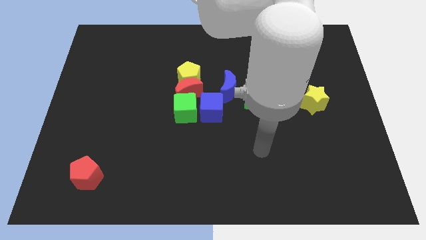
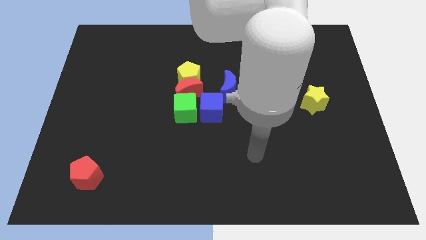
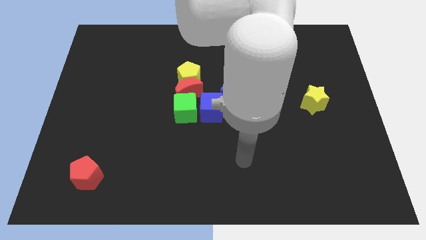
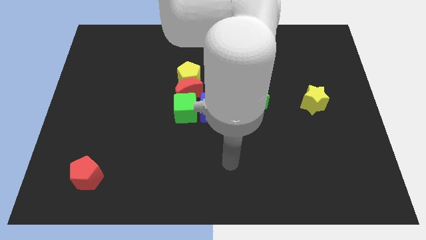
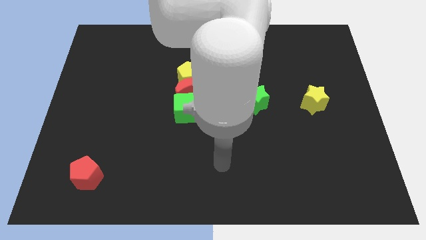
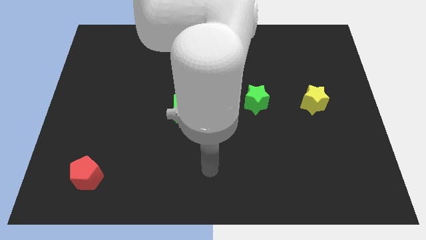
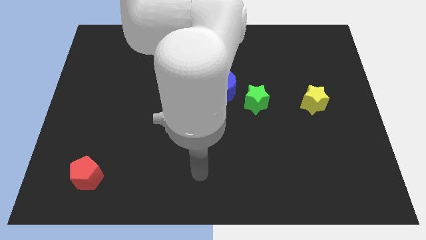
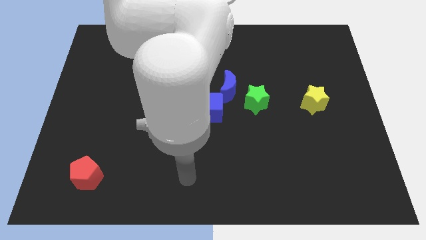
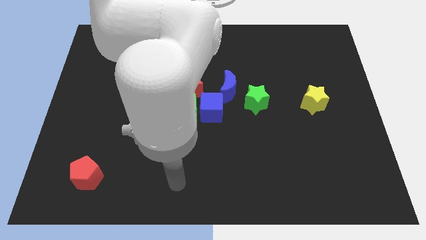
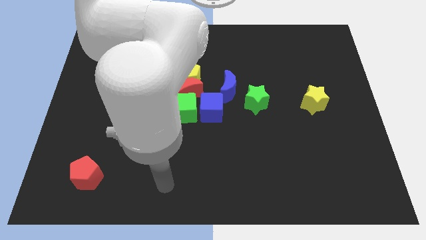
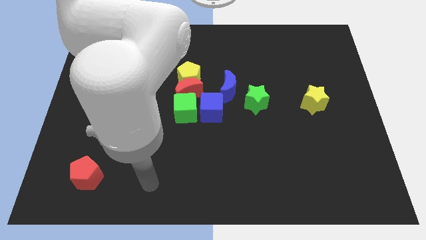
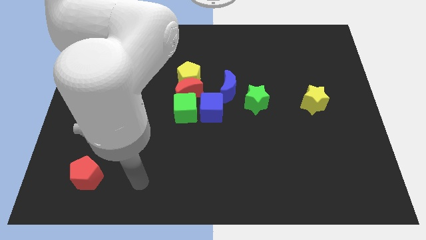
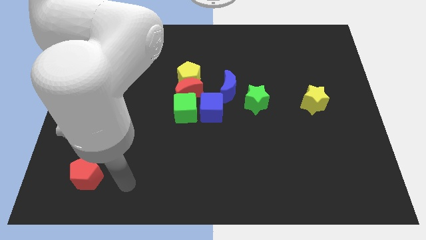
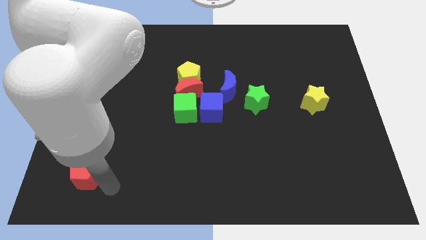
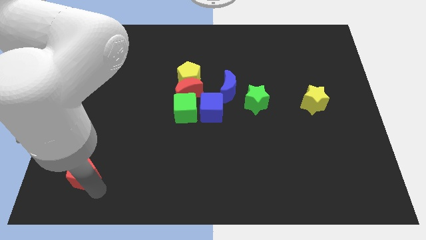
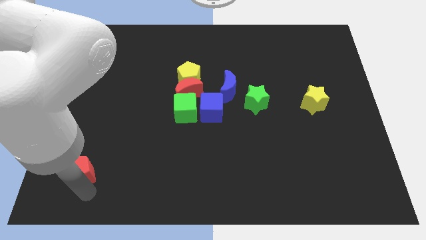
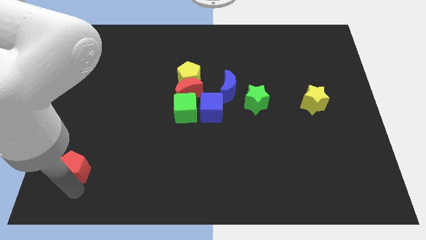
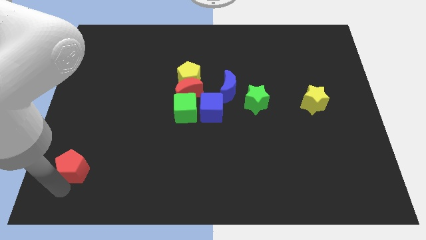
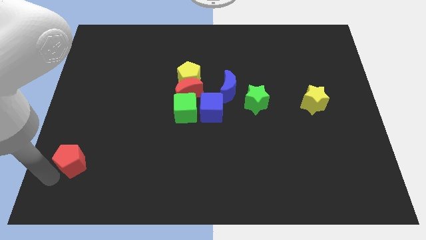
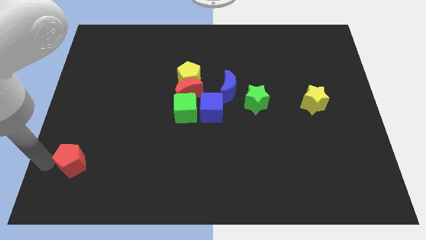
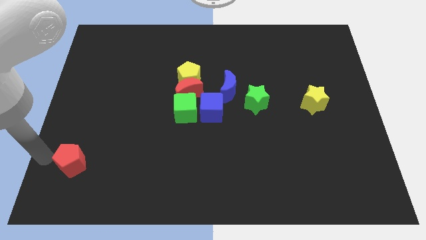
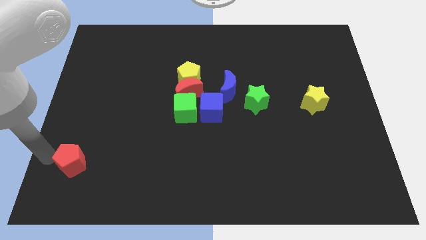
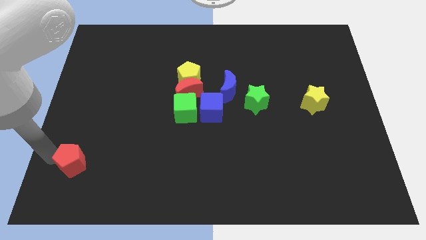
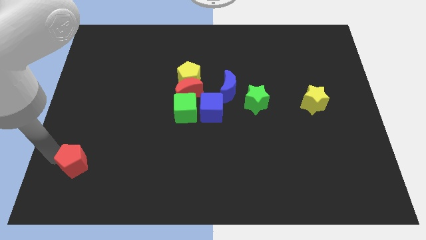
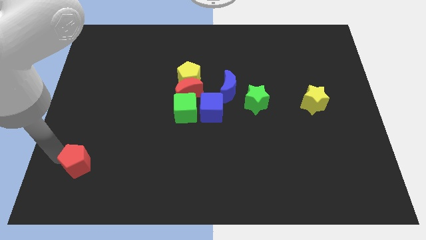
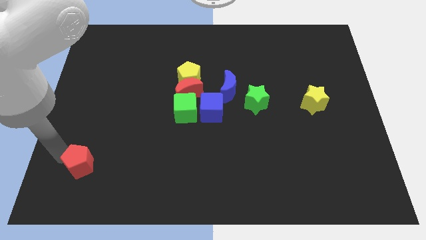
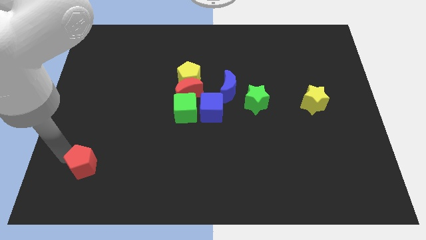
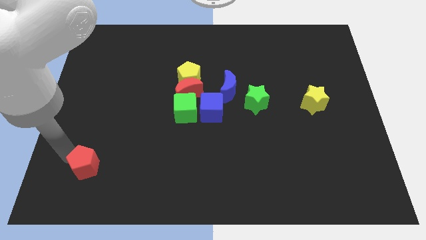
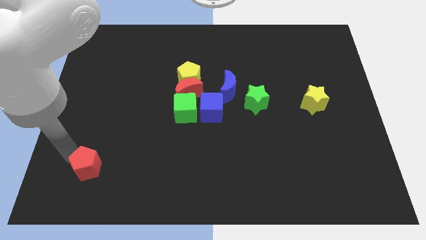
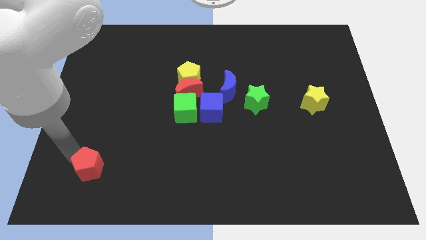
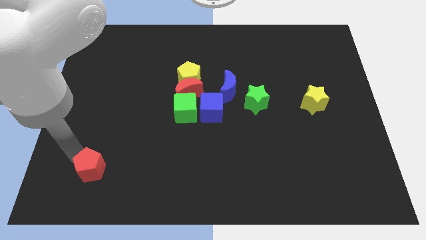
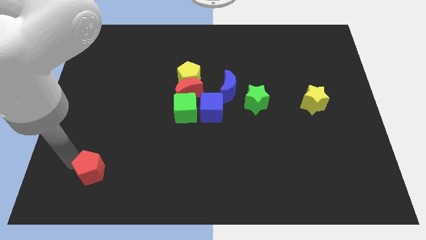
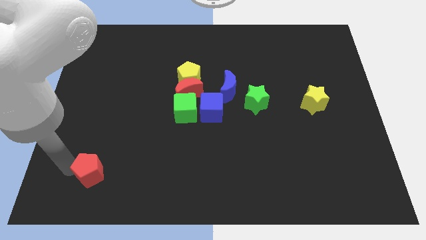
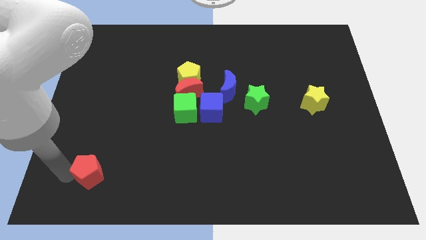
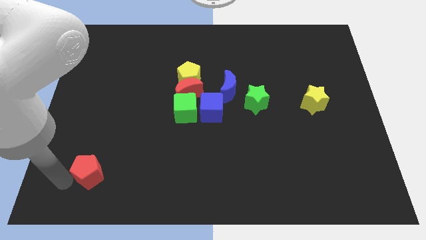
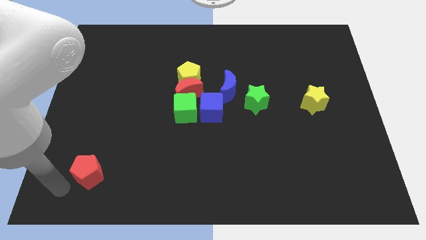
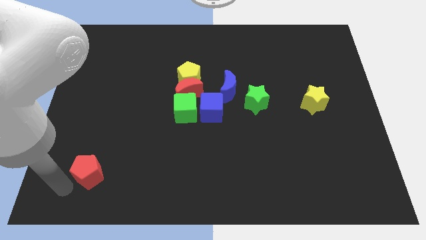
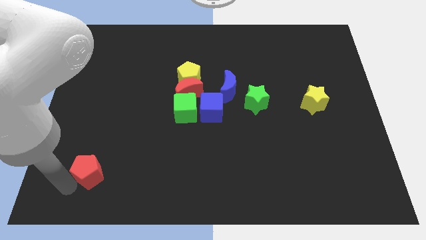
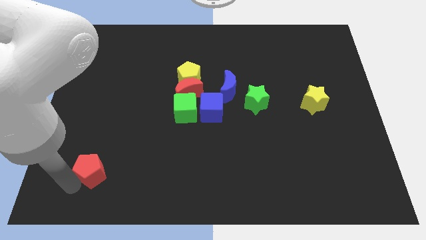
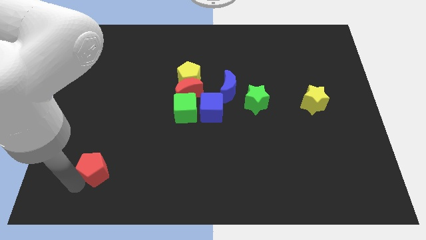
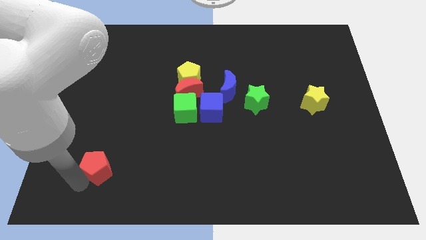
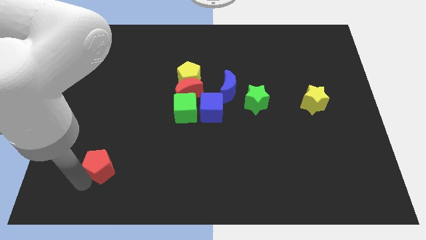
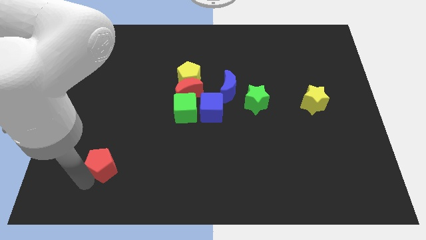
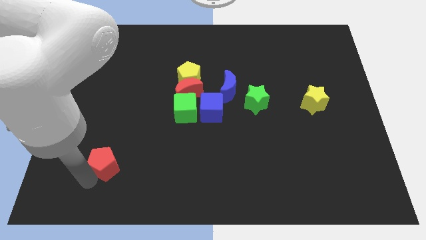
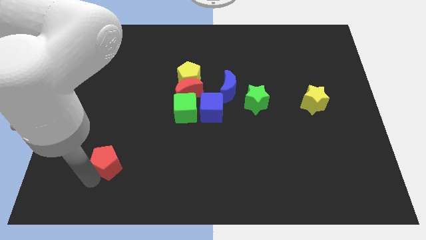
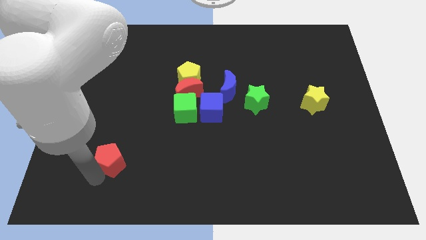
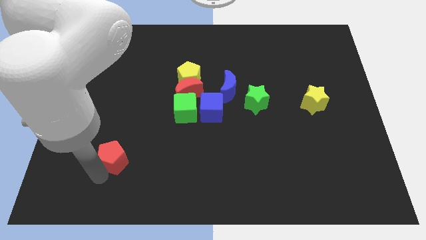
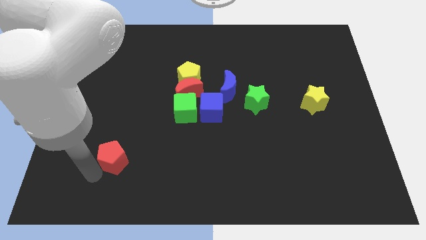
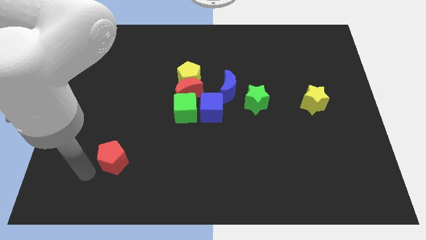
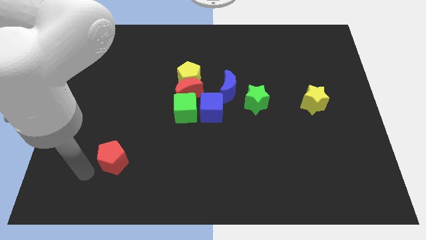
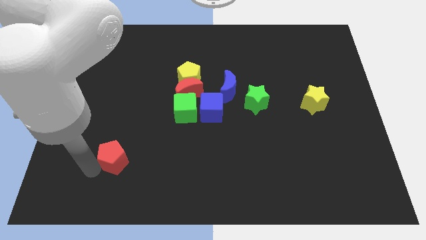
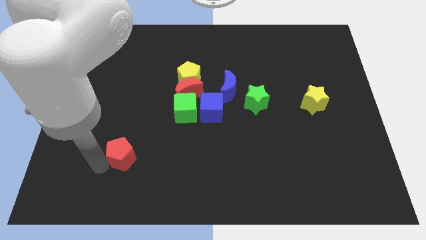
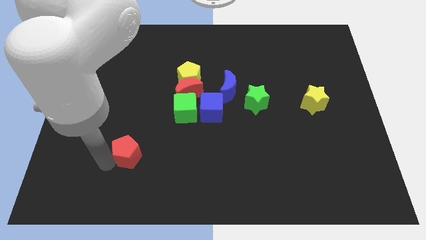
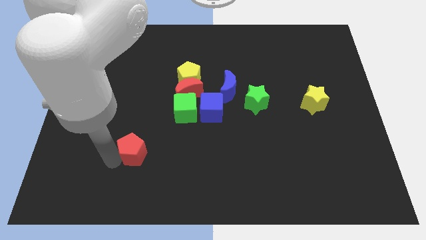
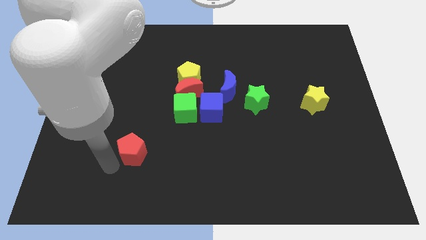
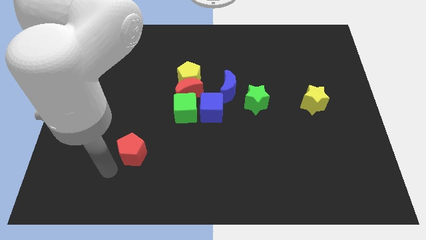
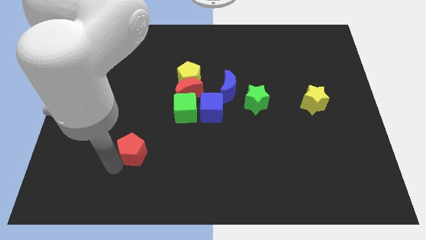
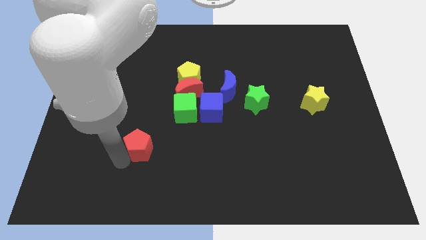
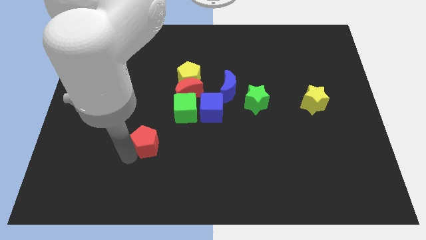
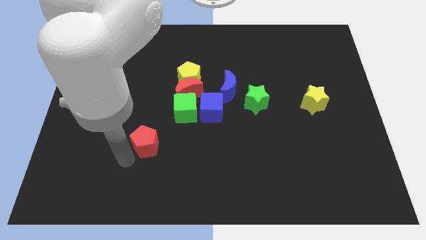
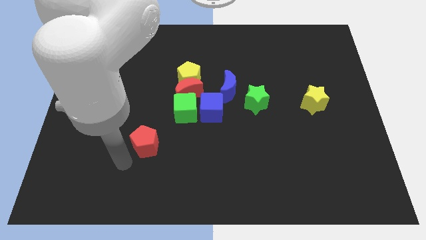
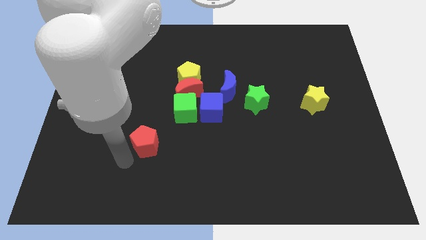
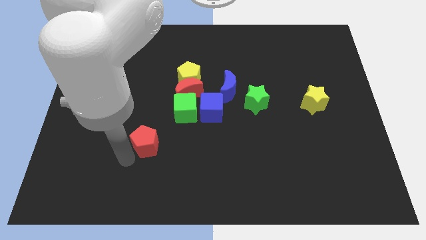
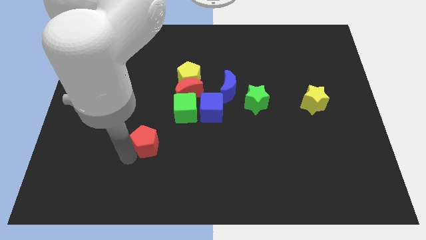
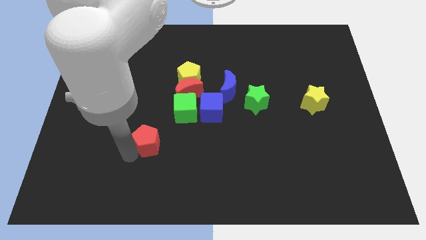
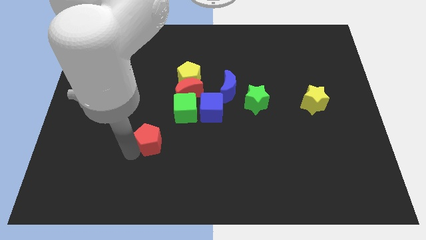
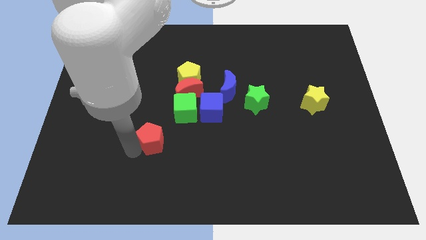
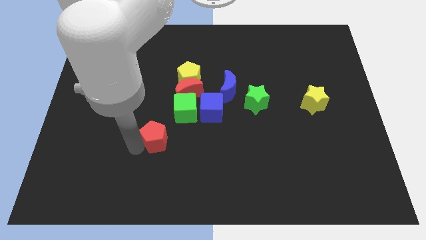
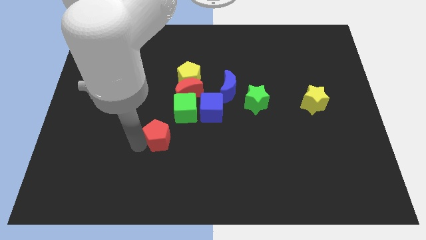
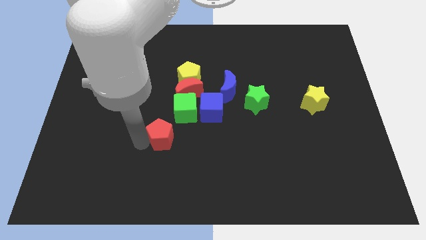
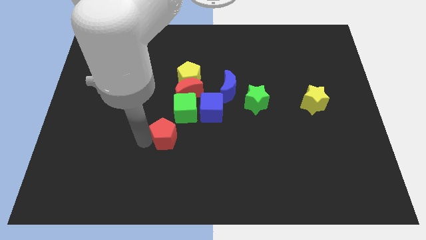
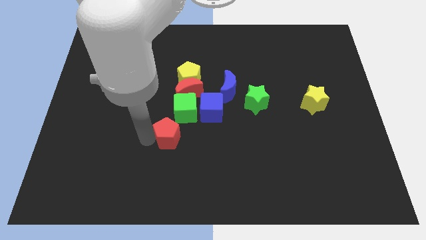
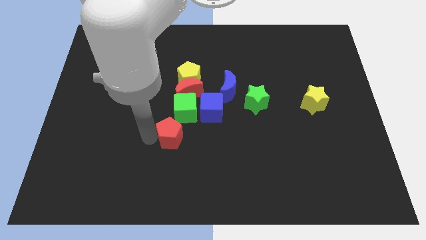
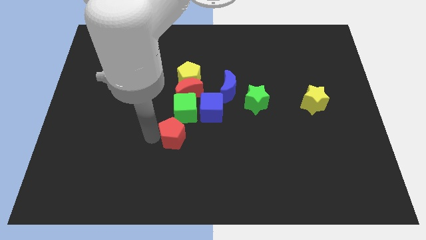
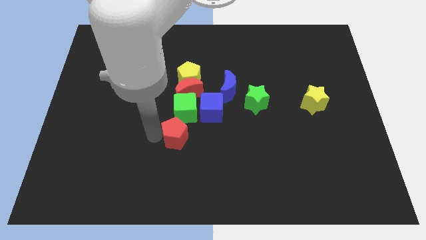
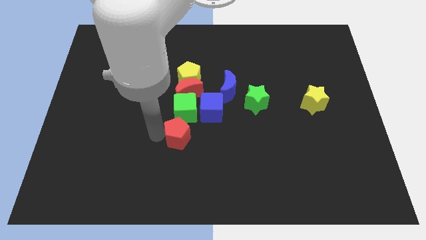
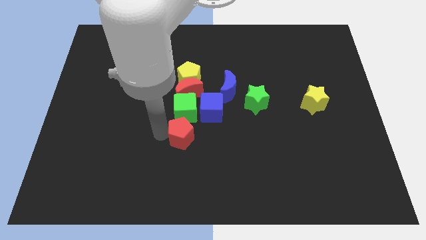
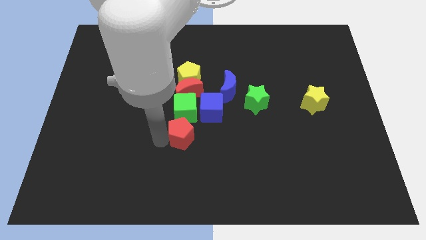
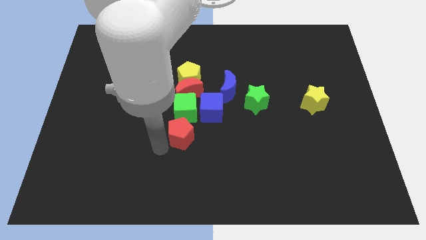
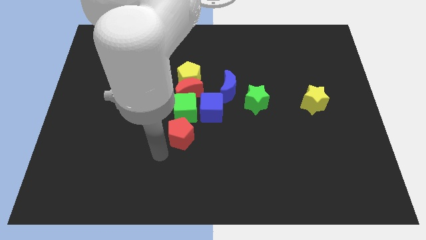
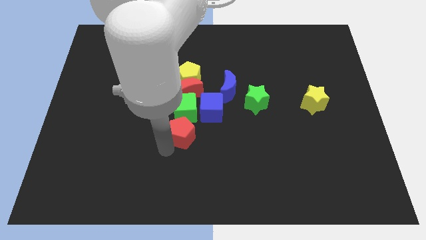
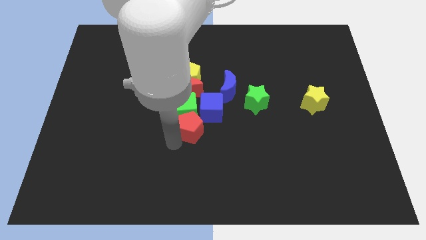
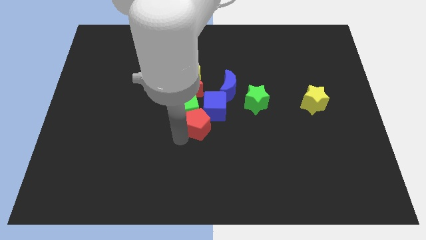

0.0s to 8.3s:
slide the red pentagon towards the blue cube
